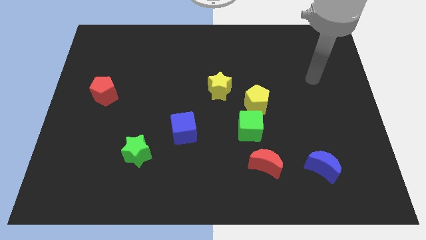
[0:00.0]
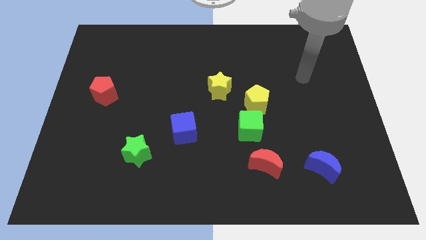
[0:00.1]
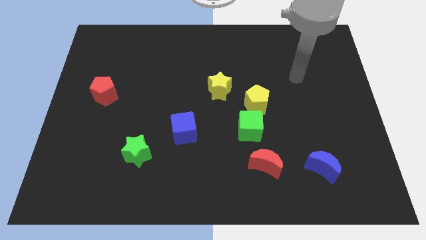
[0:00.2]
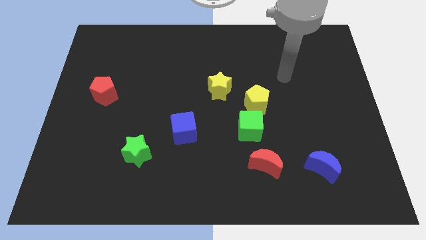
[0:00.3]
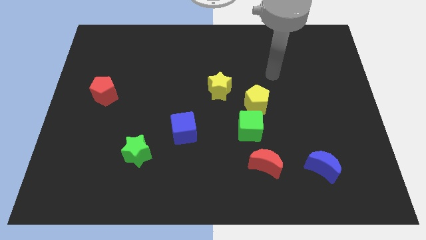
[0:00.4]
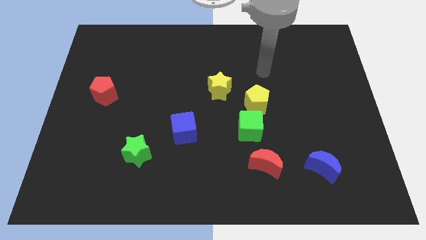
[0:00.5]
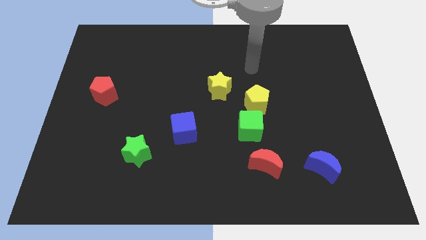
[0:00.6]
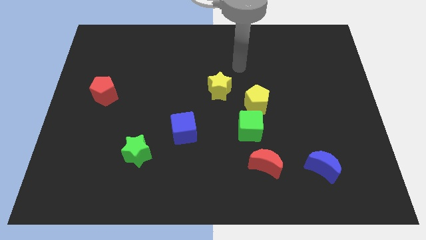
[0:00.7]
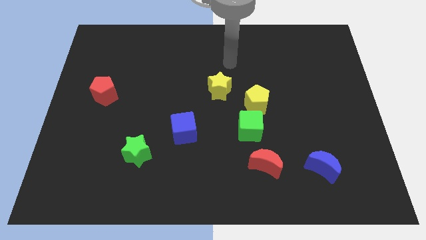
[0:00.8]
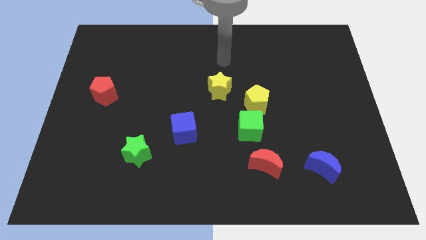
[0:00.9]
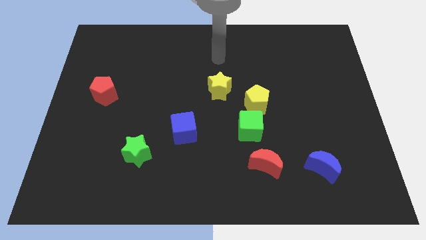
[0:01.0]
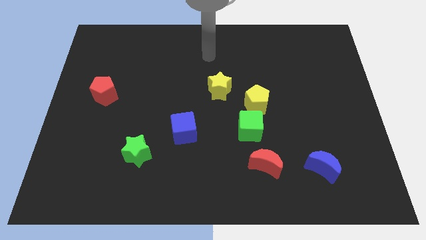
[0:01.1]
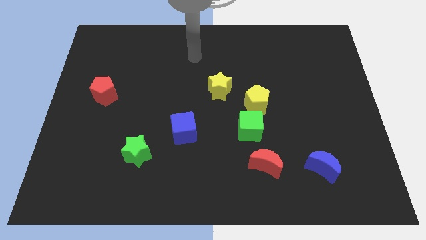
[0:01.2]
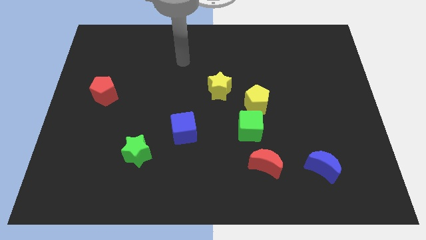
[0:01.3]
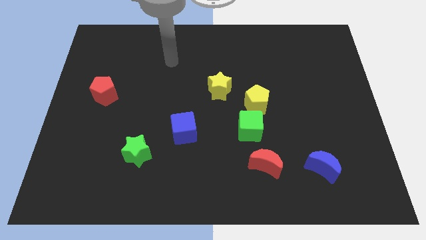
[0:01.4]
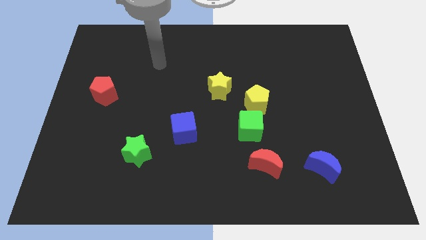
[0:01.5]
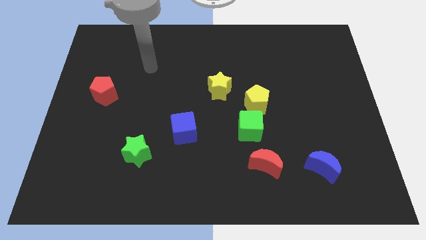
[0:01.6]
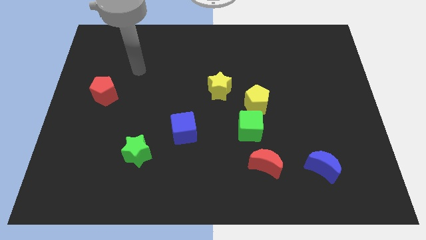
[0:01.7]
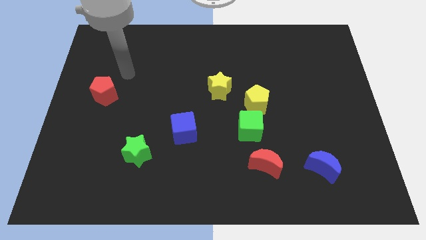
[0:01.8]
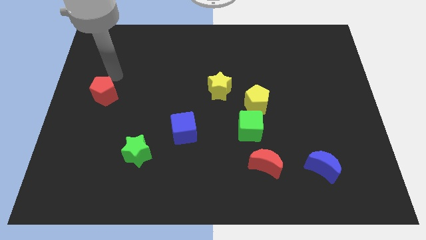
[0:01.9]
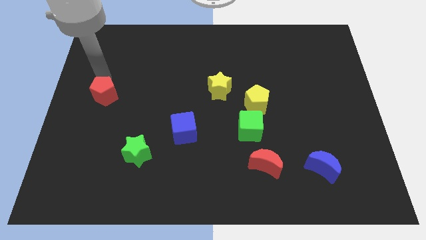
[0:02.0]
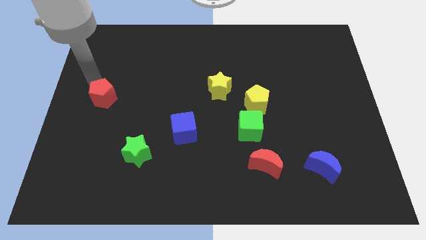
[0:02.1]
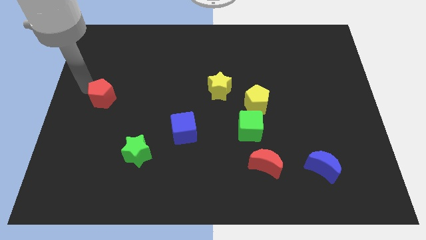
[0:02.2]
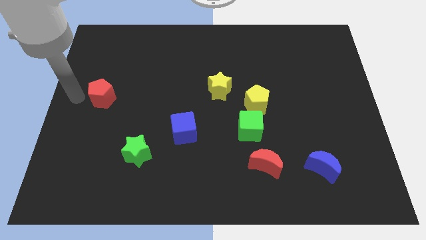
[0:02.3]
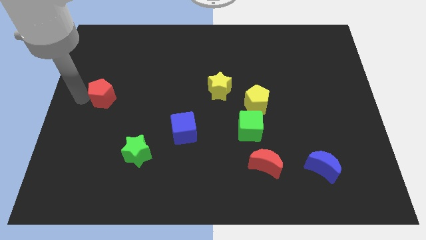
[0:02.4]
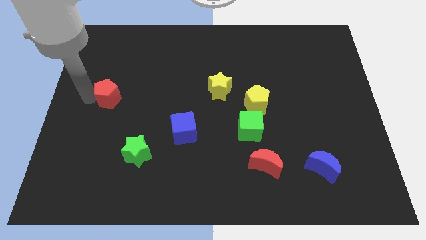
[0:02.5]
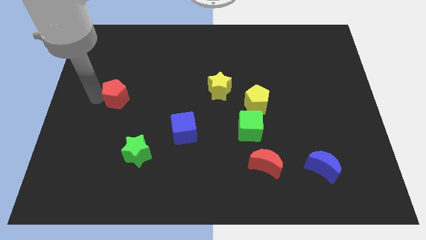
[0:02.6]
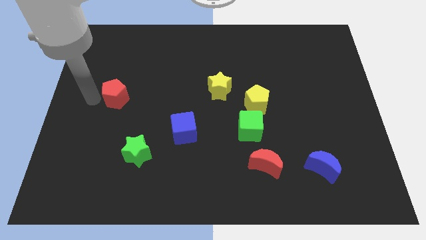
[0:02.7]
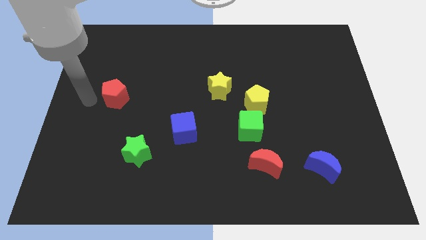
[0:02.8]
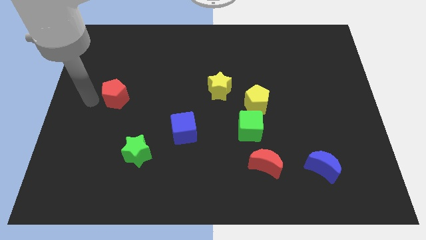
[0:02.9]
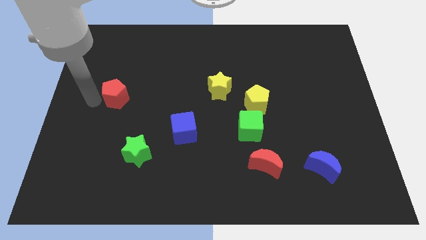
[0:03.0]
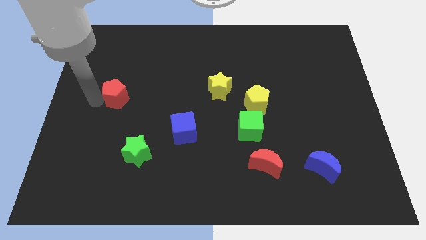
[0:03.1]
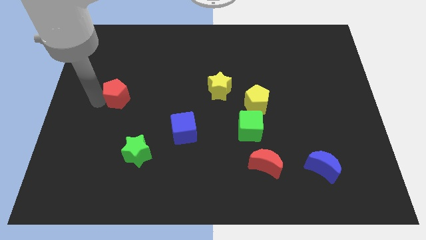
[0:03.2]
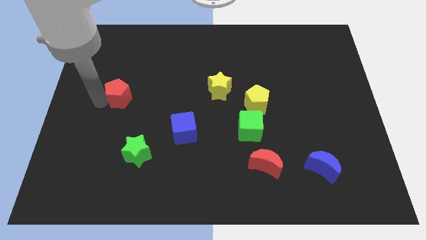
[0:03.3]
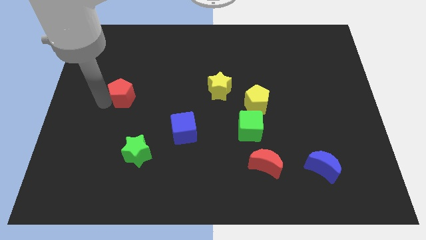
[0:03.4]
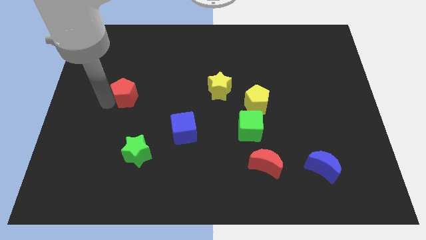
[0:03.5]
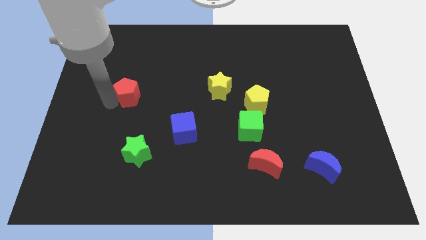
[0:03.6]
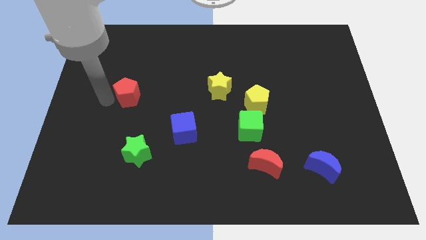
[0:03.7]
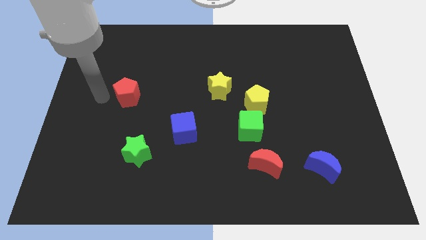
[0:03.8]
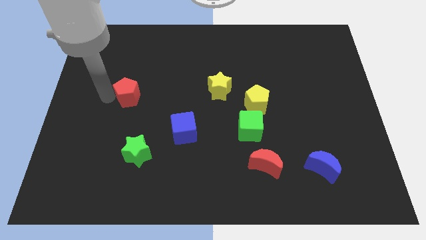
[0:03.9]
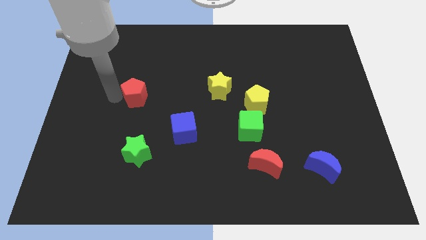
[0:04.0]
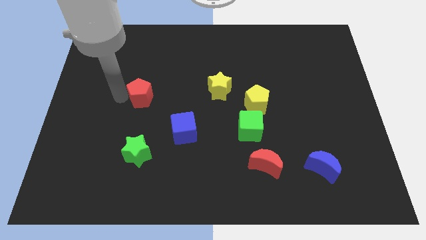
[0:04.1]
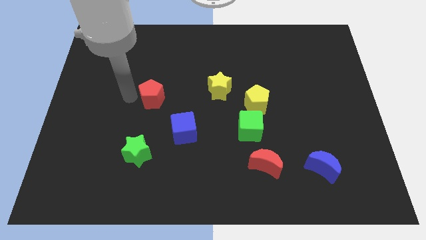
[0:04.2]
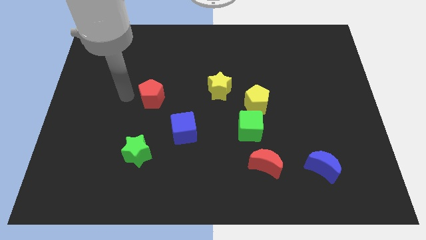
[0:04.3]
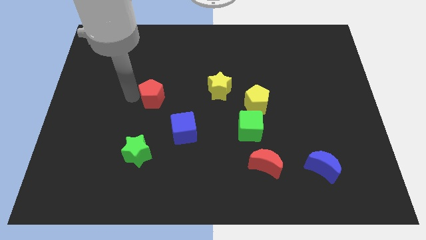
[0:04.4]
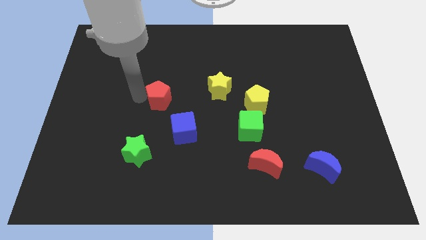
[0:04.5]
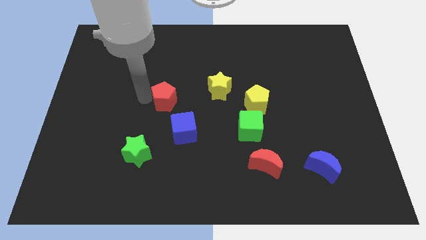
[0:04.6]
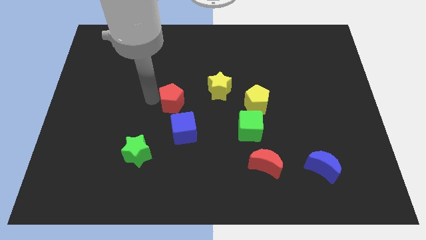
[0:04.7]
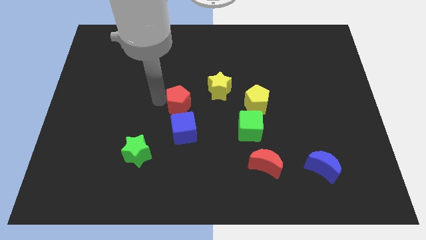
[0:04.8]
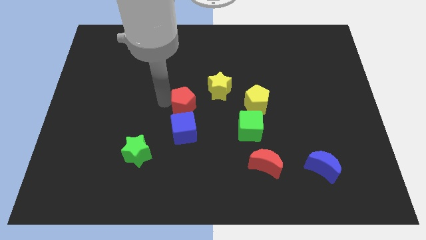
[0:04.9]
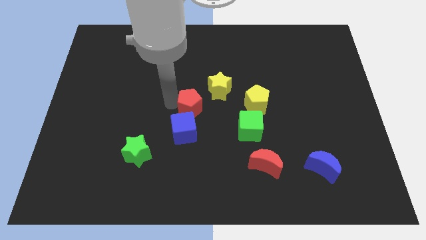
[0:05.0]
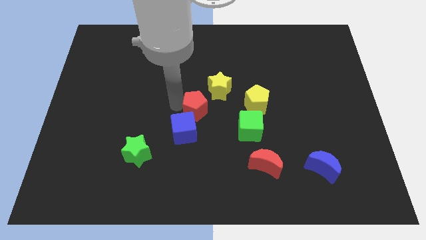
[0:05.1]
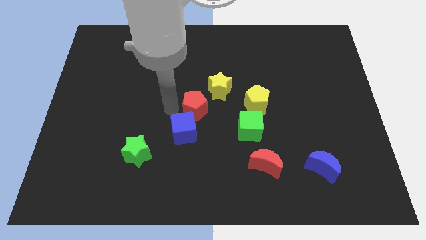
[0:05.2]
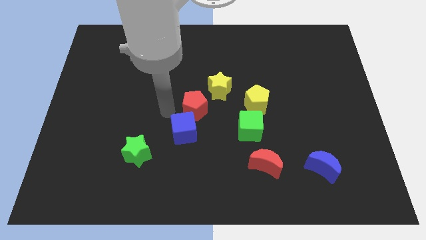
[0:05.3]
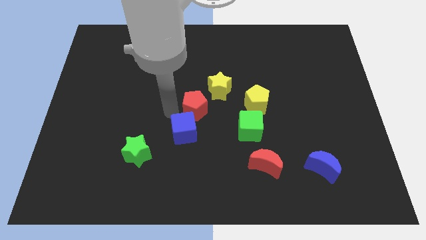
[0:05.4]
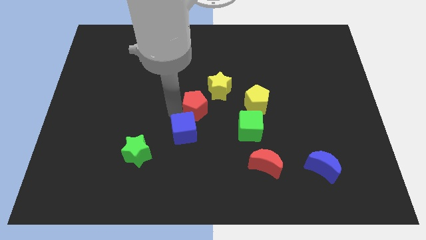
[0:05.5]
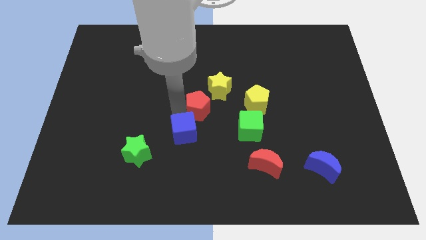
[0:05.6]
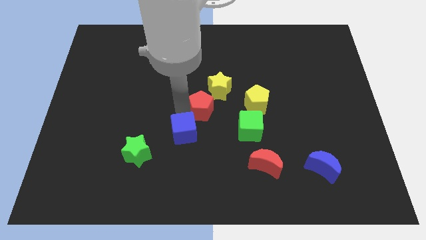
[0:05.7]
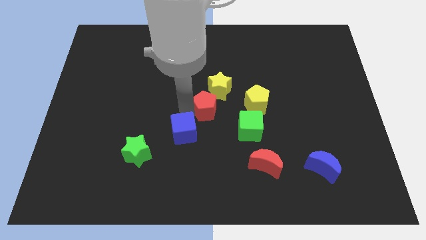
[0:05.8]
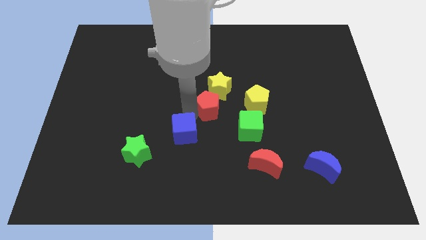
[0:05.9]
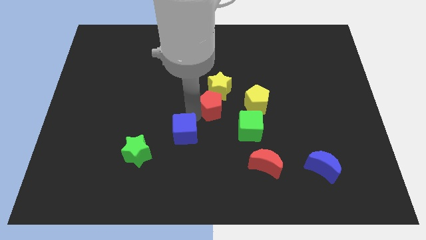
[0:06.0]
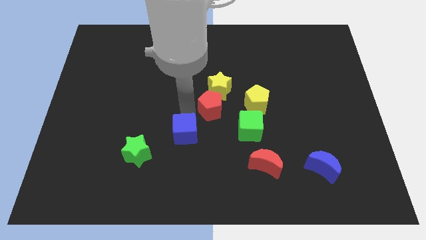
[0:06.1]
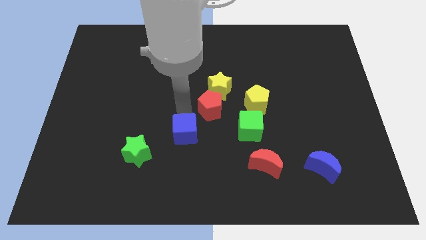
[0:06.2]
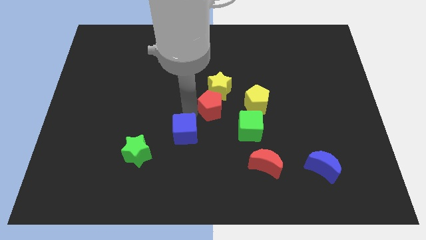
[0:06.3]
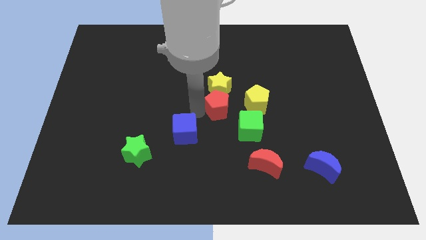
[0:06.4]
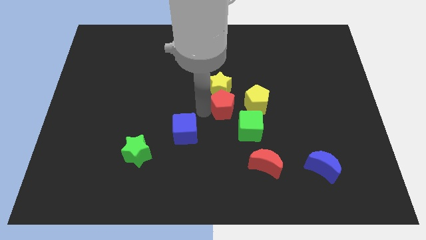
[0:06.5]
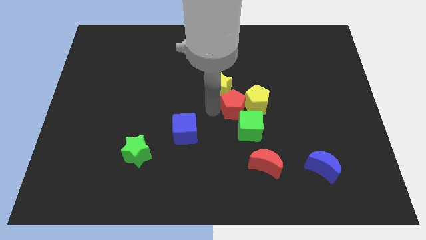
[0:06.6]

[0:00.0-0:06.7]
slide the red pentagon to the yellow pentagon

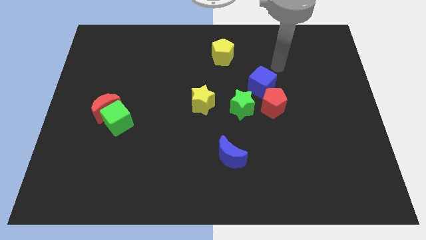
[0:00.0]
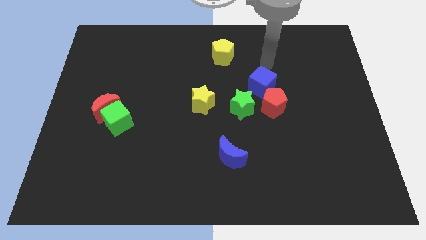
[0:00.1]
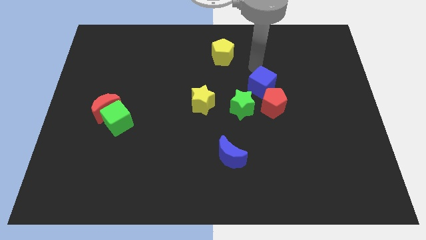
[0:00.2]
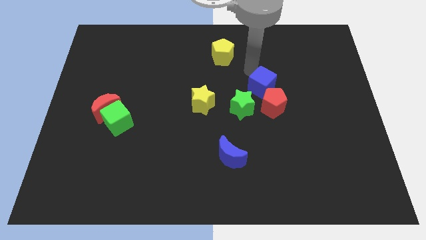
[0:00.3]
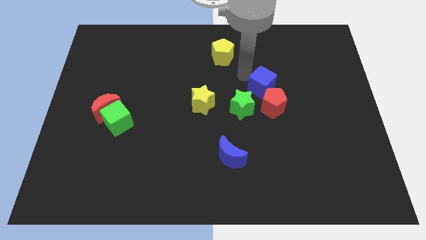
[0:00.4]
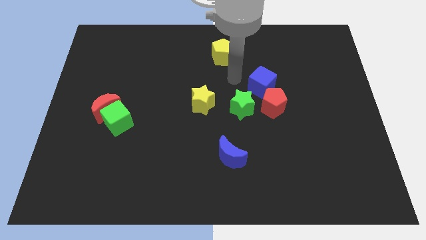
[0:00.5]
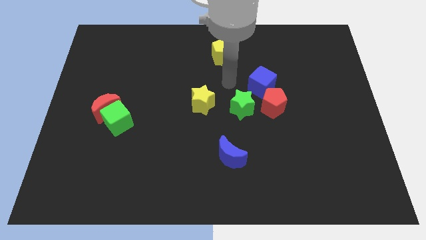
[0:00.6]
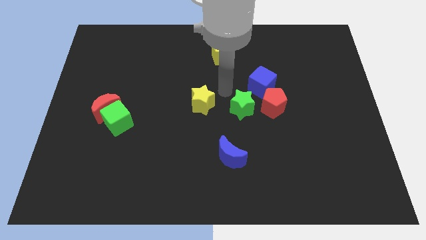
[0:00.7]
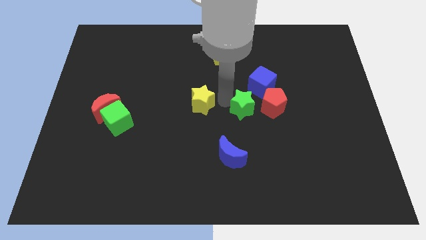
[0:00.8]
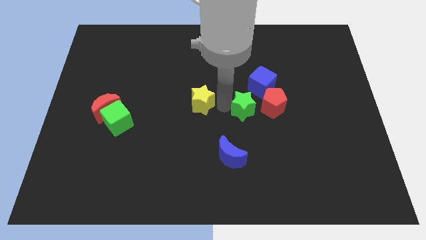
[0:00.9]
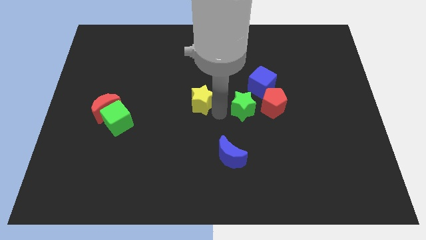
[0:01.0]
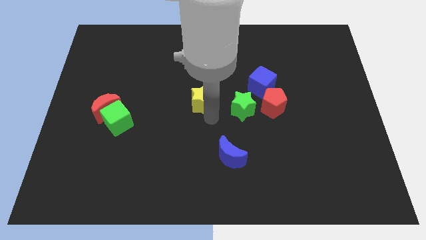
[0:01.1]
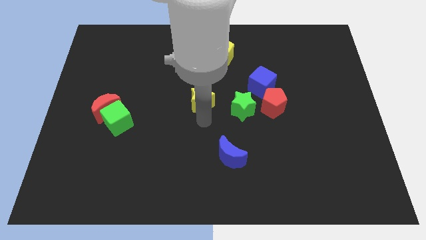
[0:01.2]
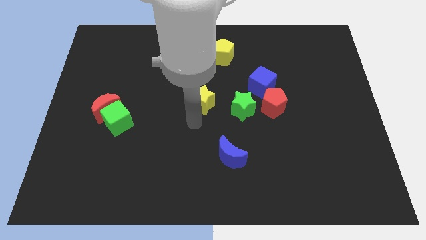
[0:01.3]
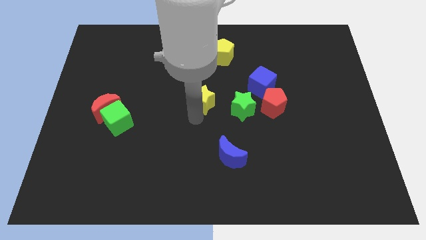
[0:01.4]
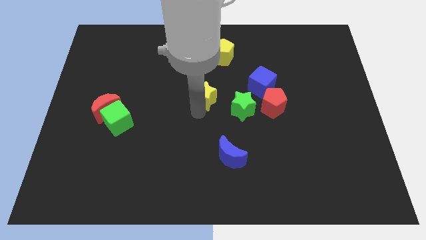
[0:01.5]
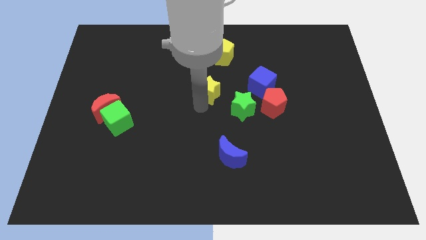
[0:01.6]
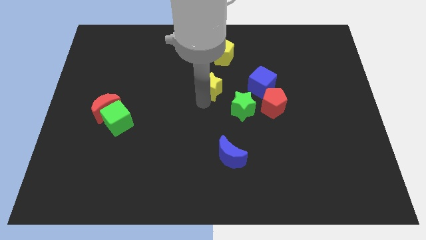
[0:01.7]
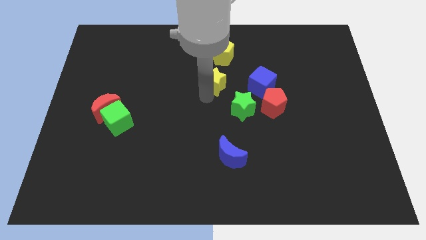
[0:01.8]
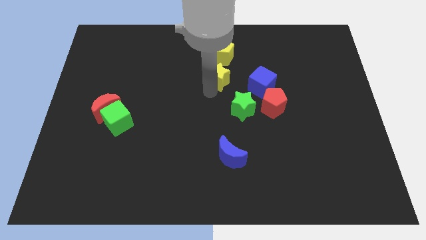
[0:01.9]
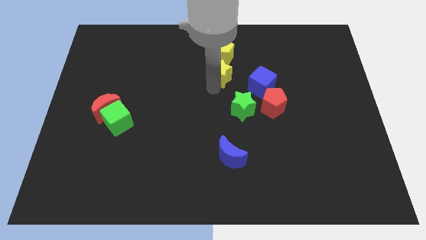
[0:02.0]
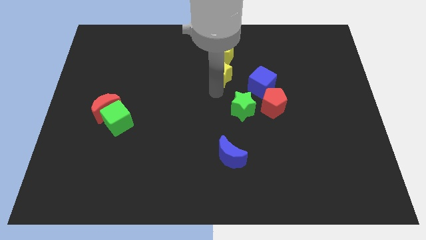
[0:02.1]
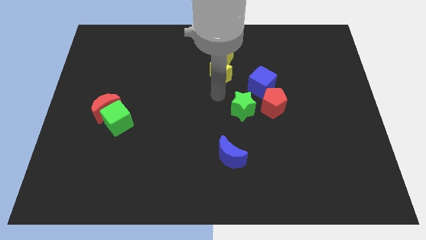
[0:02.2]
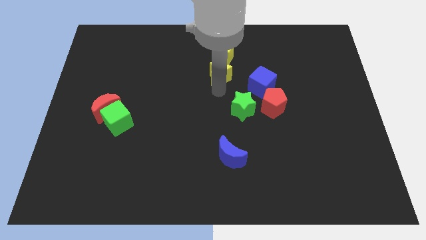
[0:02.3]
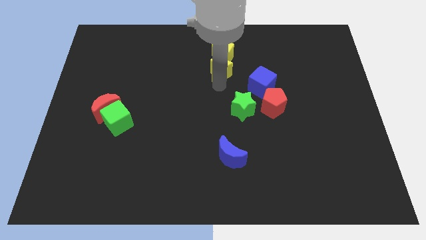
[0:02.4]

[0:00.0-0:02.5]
push the yellow star next to the yellow pentagon
